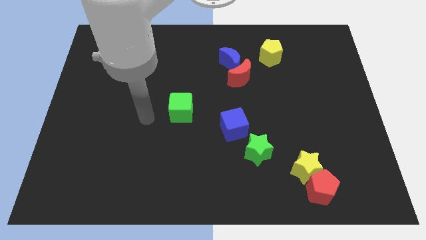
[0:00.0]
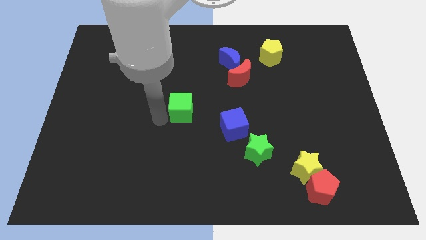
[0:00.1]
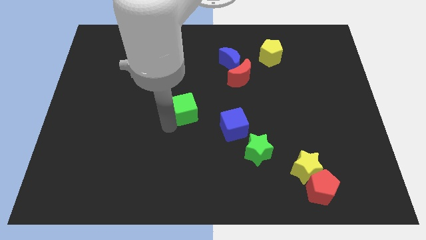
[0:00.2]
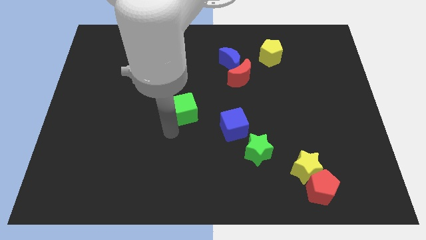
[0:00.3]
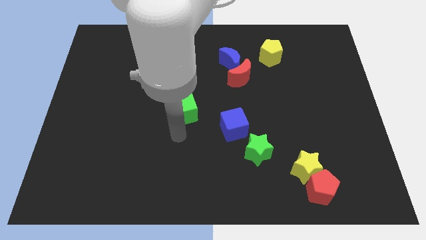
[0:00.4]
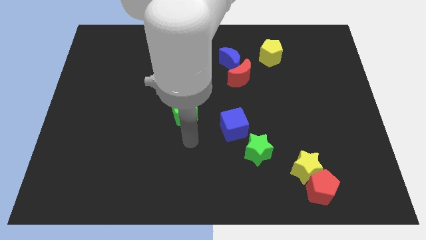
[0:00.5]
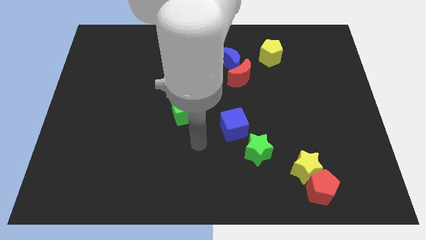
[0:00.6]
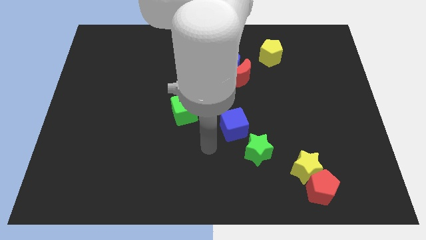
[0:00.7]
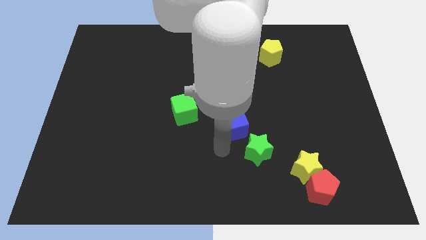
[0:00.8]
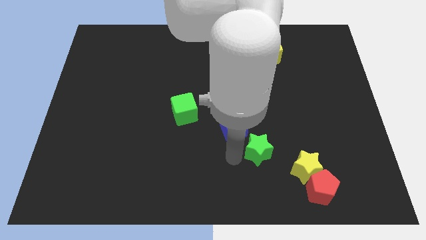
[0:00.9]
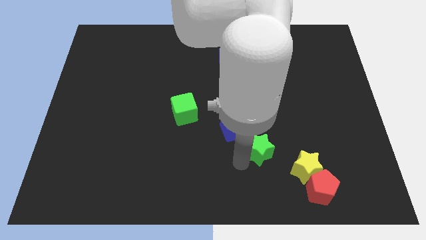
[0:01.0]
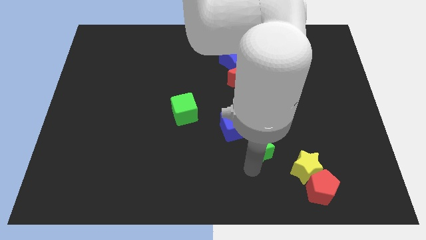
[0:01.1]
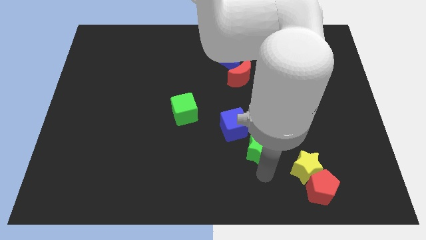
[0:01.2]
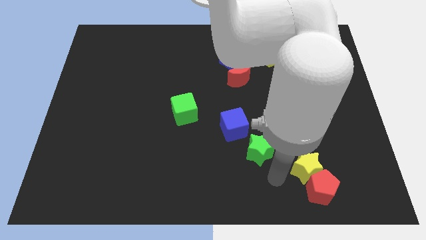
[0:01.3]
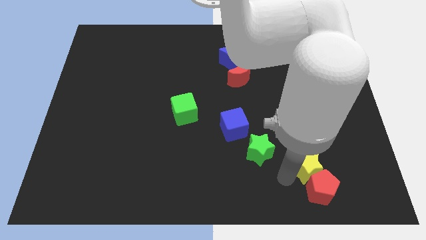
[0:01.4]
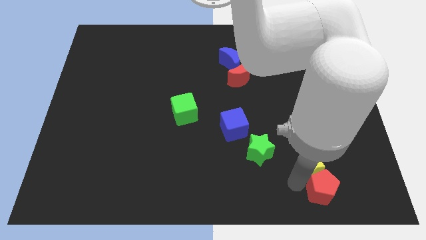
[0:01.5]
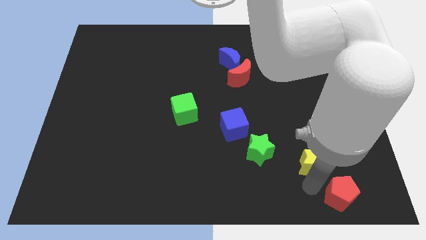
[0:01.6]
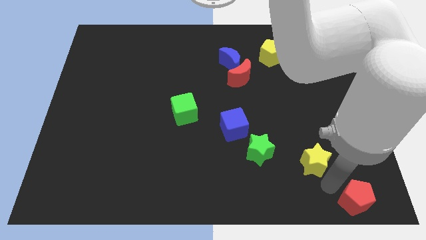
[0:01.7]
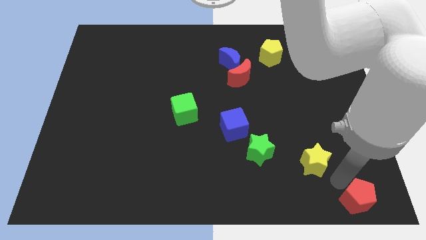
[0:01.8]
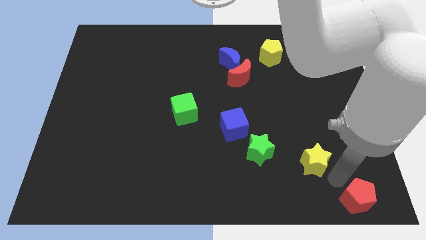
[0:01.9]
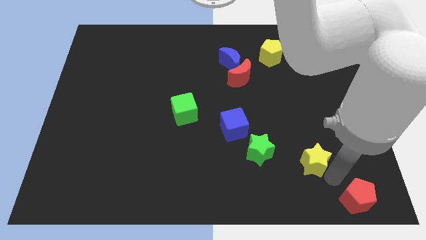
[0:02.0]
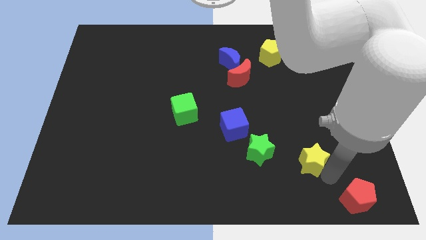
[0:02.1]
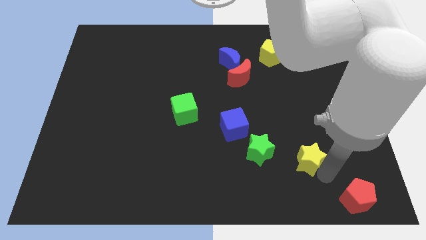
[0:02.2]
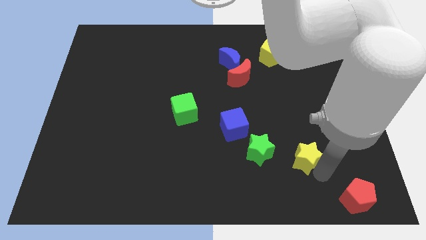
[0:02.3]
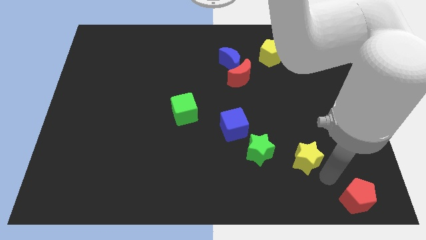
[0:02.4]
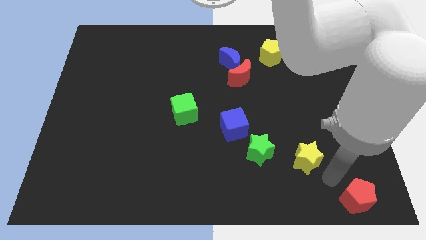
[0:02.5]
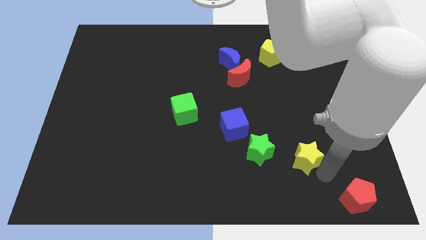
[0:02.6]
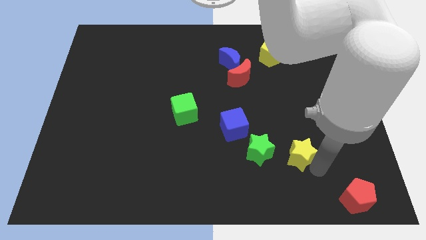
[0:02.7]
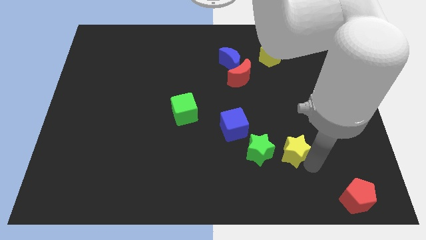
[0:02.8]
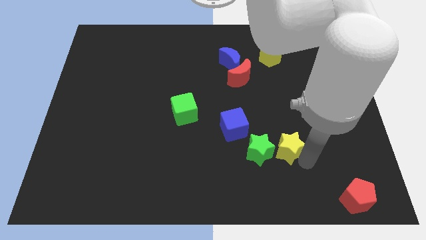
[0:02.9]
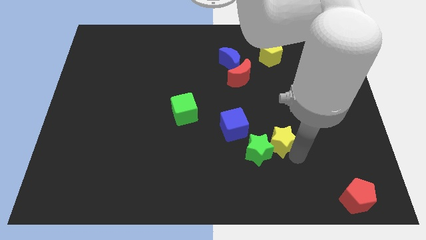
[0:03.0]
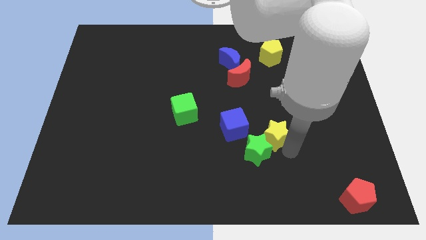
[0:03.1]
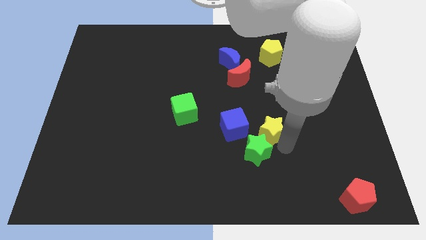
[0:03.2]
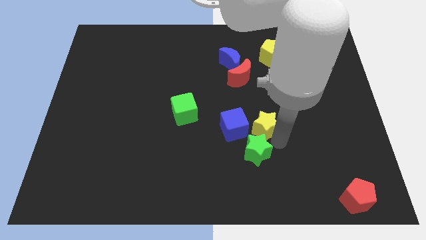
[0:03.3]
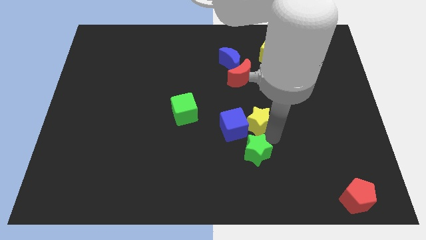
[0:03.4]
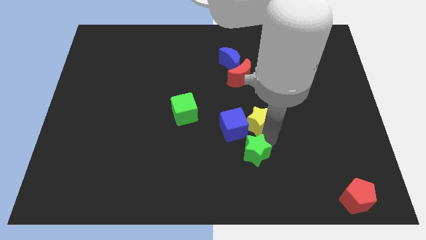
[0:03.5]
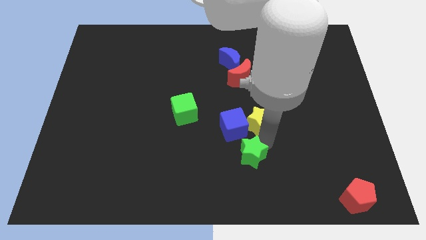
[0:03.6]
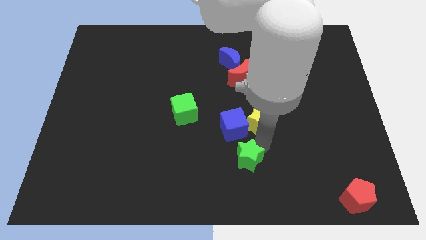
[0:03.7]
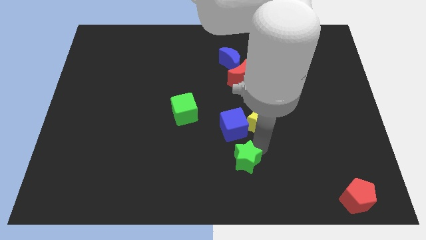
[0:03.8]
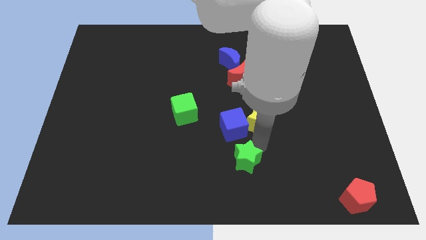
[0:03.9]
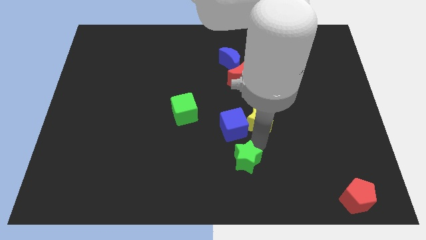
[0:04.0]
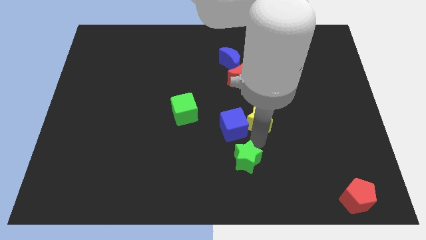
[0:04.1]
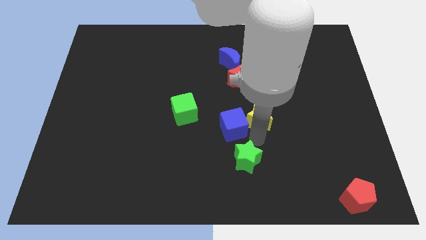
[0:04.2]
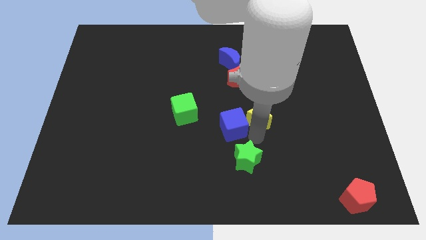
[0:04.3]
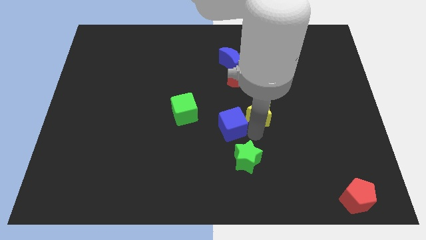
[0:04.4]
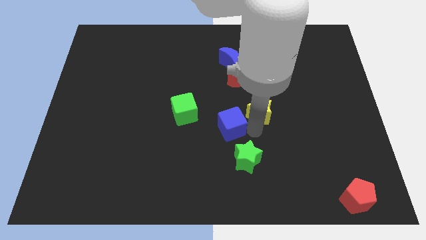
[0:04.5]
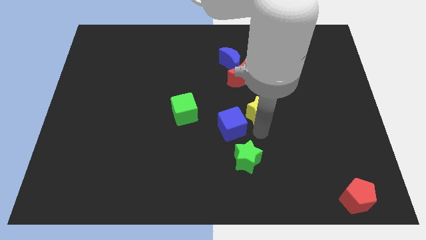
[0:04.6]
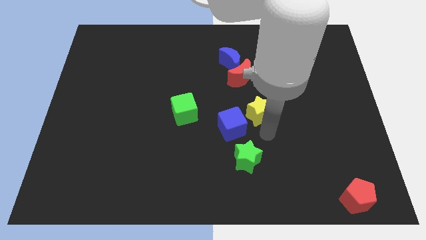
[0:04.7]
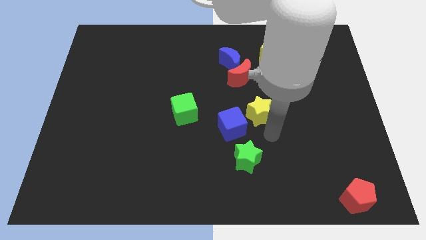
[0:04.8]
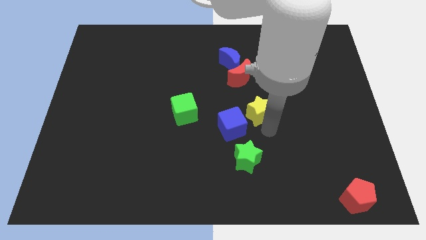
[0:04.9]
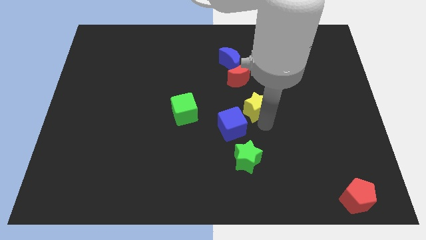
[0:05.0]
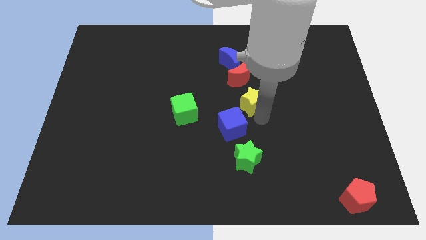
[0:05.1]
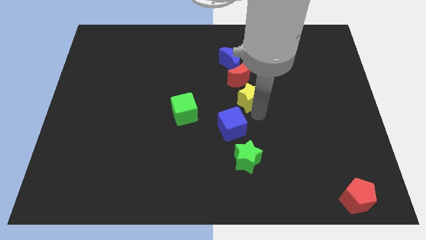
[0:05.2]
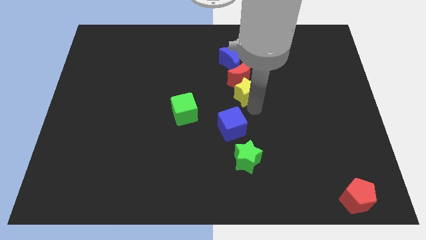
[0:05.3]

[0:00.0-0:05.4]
move the yellow star towards the red moon

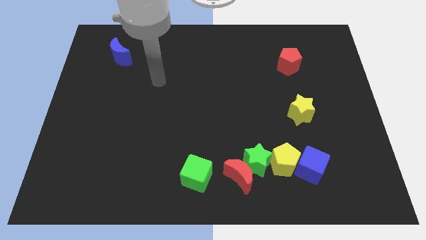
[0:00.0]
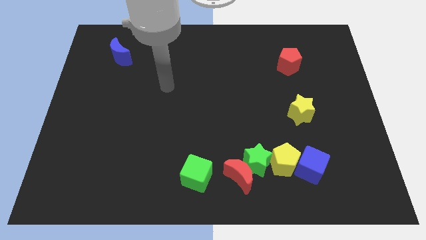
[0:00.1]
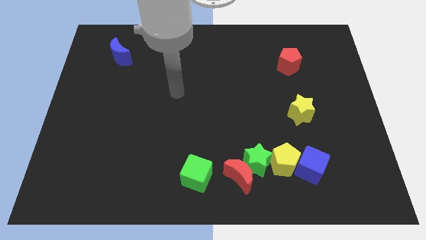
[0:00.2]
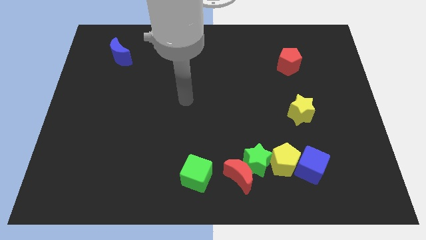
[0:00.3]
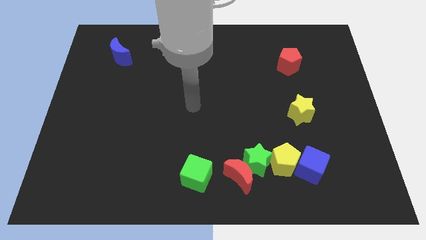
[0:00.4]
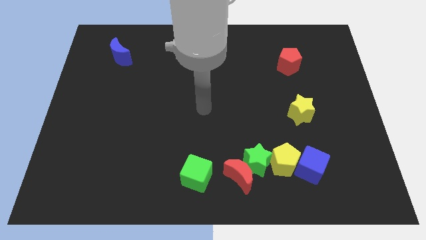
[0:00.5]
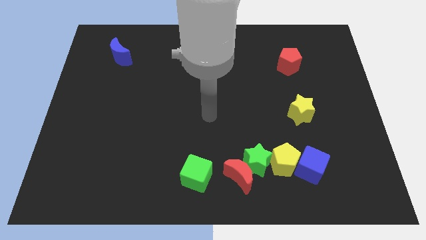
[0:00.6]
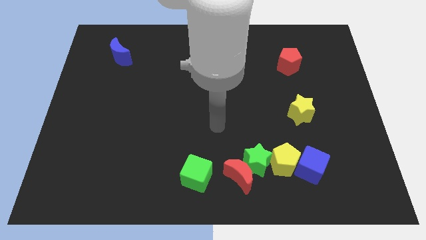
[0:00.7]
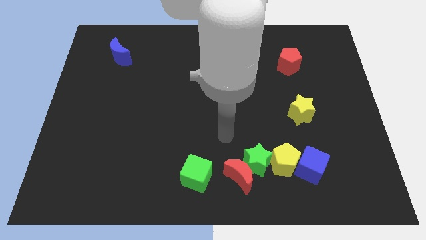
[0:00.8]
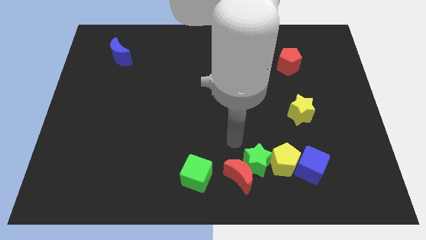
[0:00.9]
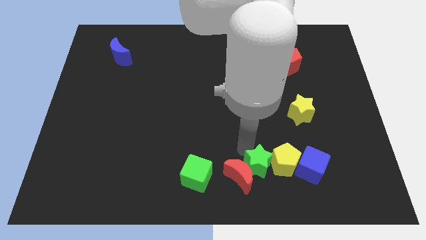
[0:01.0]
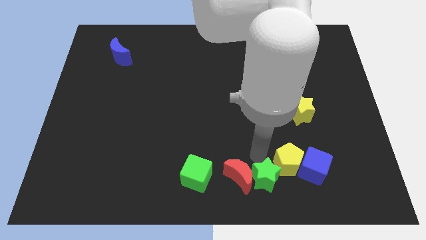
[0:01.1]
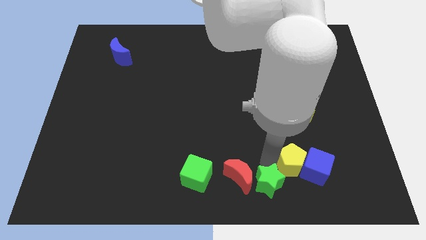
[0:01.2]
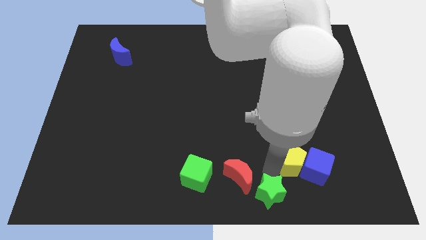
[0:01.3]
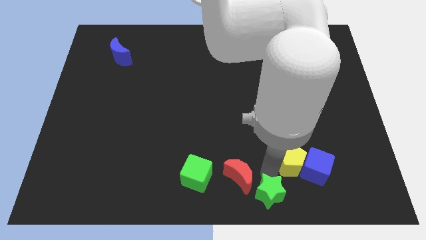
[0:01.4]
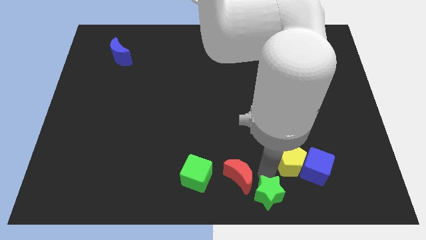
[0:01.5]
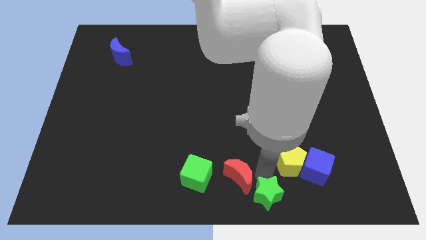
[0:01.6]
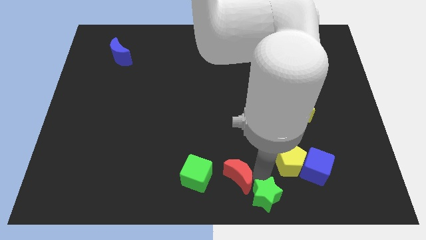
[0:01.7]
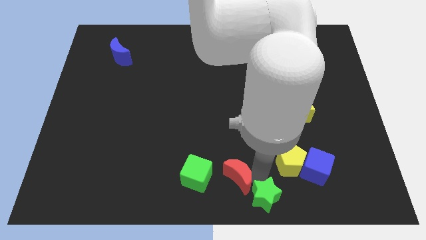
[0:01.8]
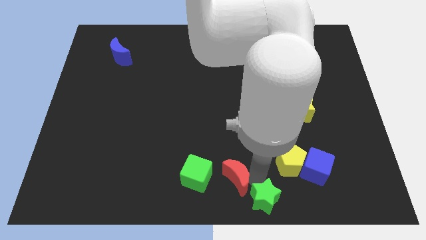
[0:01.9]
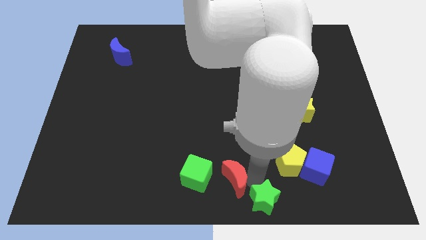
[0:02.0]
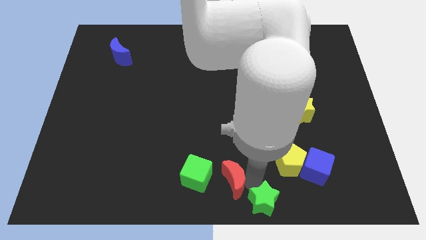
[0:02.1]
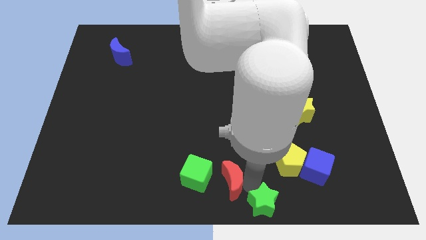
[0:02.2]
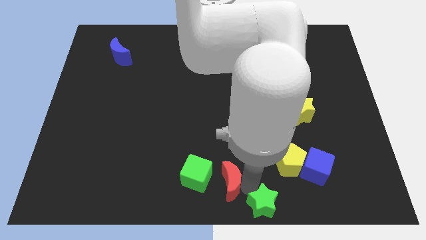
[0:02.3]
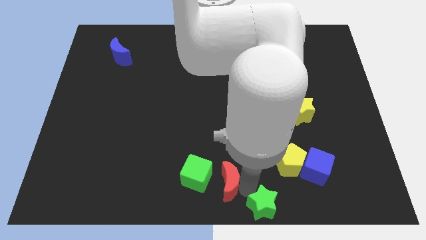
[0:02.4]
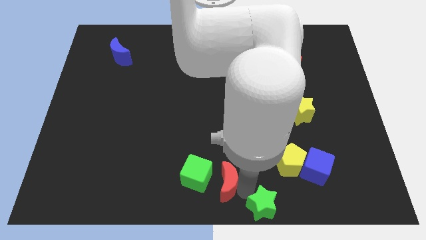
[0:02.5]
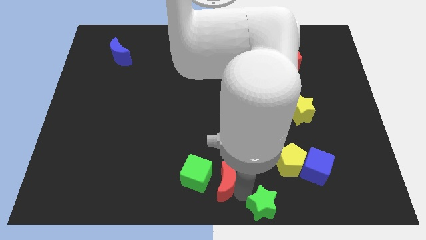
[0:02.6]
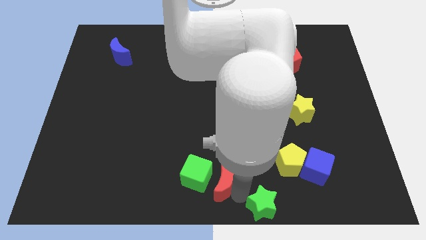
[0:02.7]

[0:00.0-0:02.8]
put the red moon next to the green cube

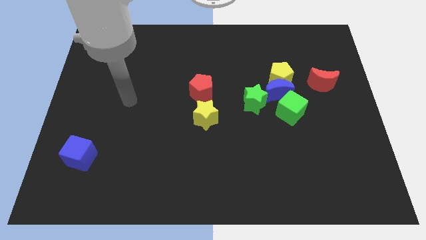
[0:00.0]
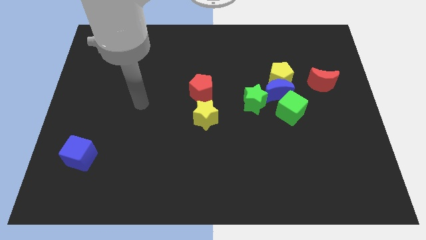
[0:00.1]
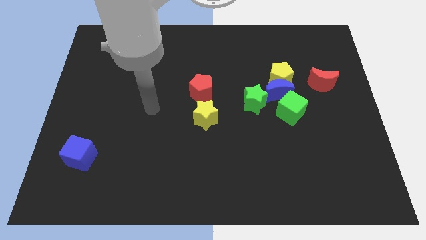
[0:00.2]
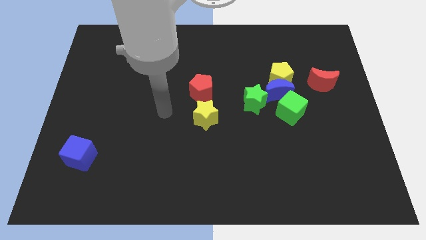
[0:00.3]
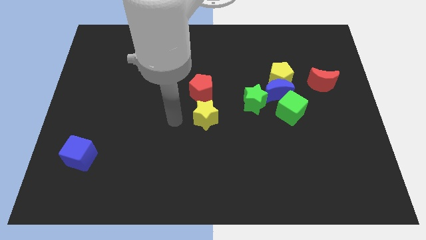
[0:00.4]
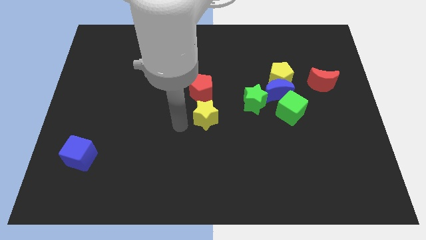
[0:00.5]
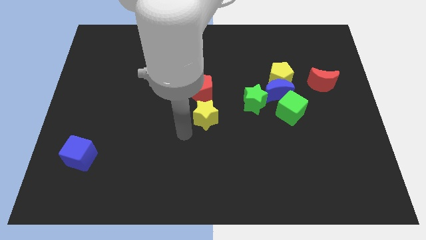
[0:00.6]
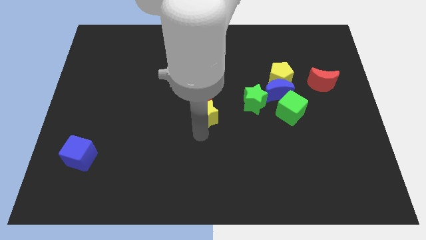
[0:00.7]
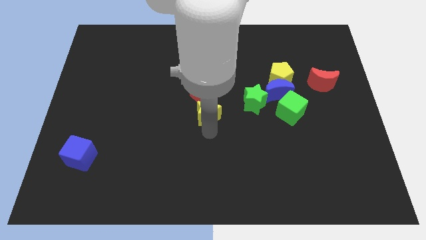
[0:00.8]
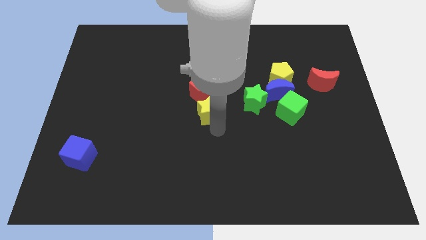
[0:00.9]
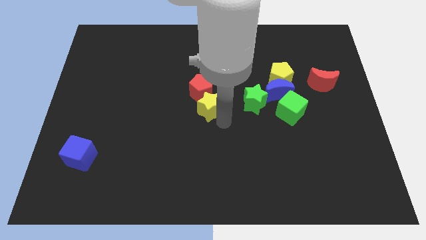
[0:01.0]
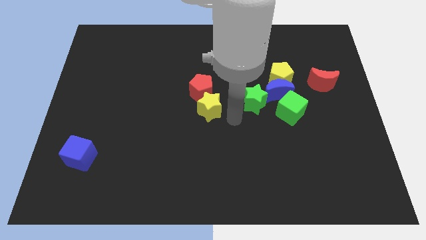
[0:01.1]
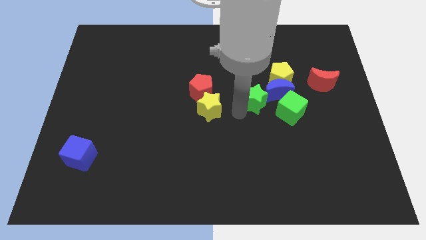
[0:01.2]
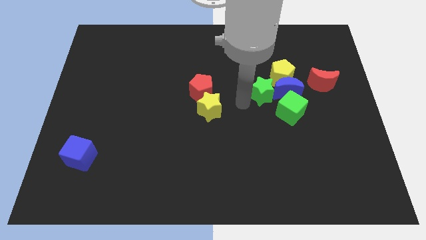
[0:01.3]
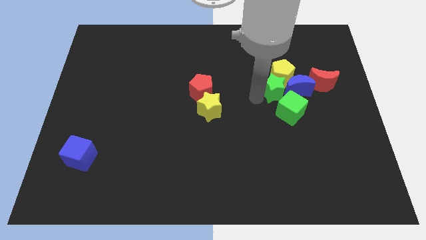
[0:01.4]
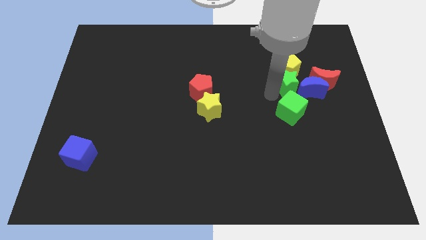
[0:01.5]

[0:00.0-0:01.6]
move the blue moon next to the red moon
